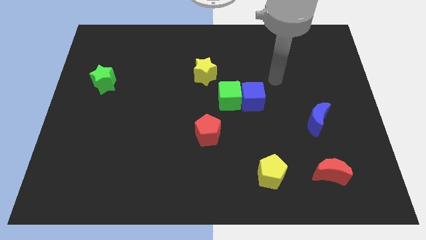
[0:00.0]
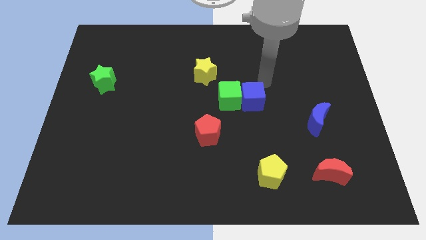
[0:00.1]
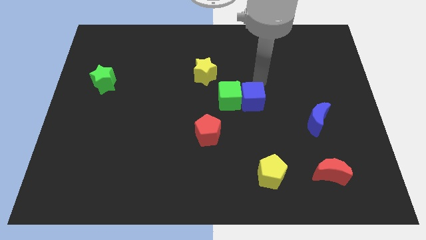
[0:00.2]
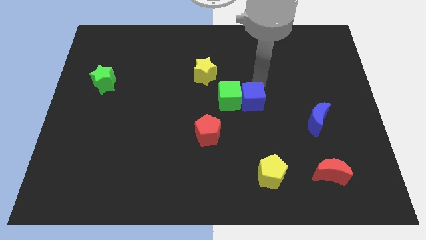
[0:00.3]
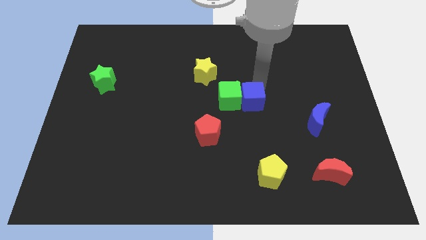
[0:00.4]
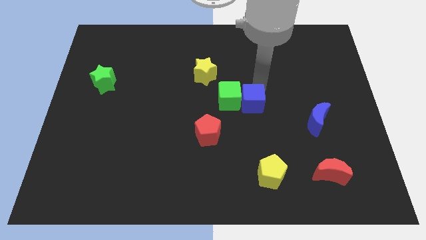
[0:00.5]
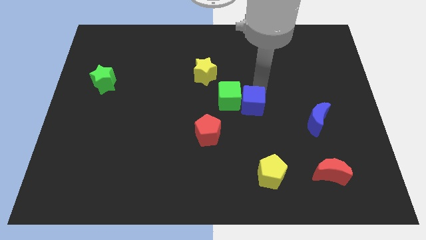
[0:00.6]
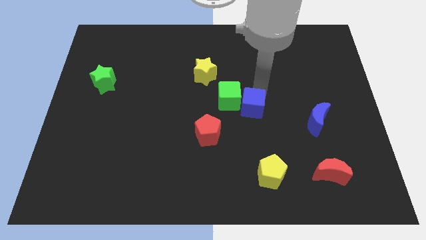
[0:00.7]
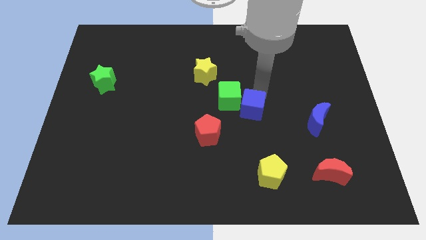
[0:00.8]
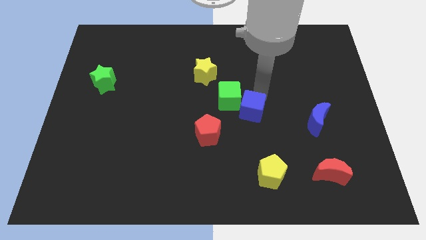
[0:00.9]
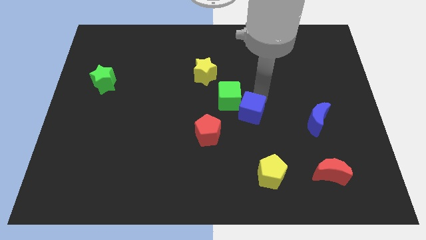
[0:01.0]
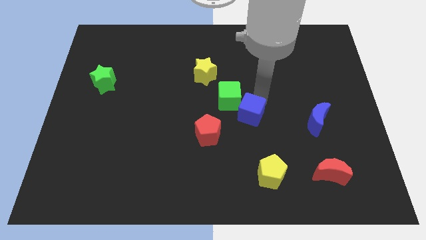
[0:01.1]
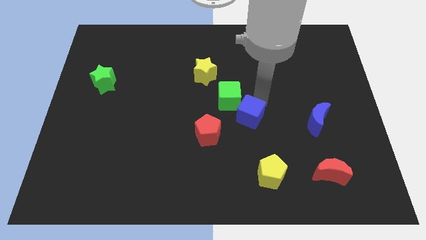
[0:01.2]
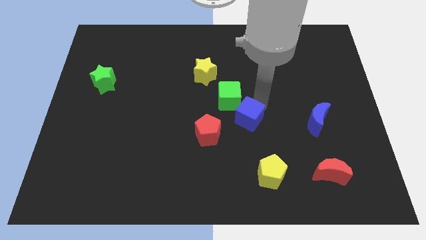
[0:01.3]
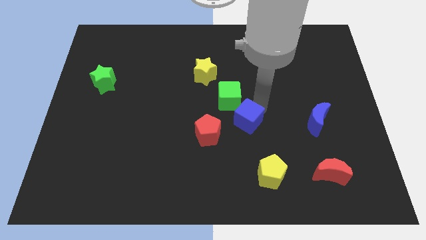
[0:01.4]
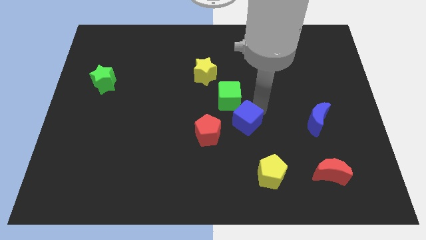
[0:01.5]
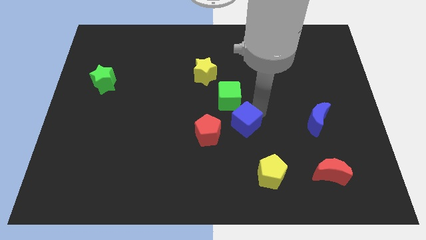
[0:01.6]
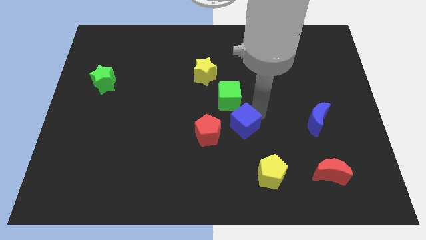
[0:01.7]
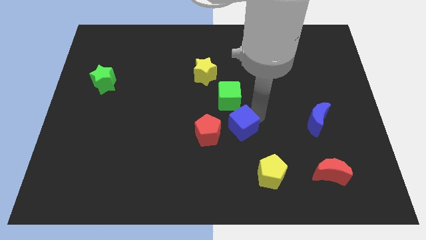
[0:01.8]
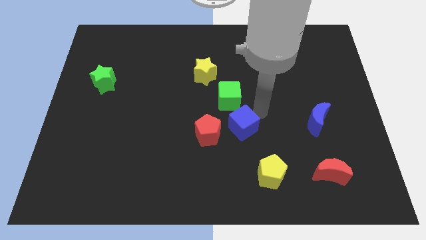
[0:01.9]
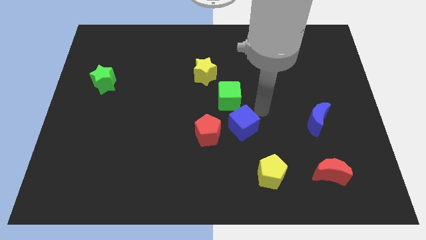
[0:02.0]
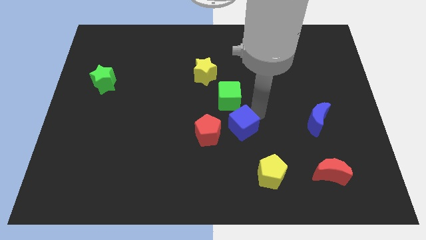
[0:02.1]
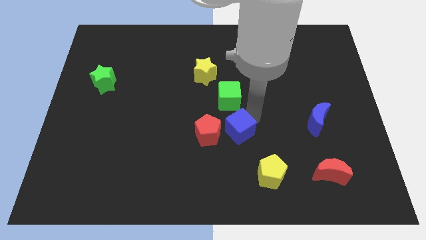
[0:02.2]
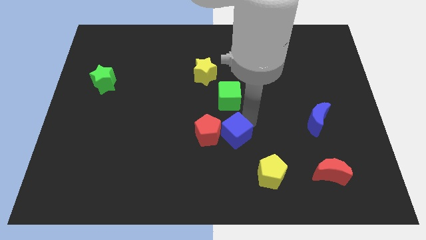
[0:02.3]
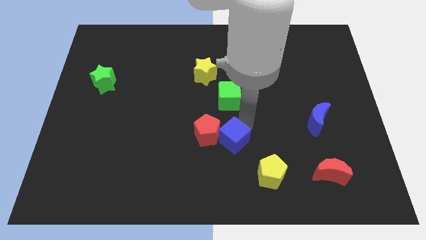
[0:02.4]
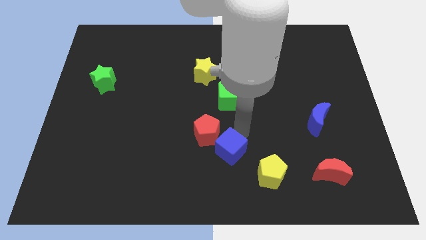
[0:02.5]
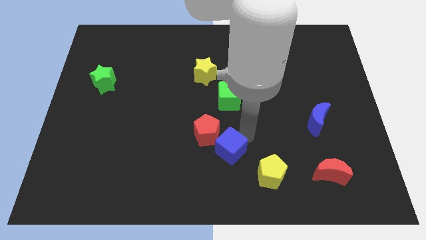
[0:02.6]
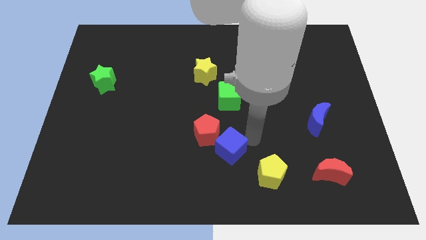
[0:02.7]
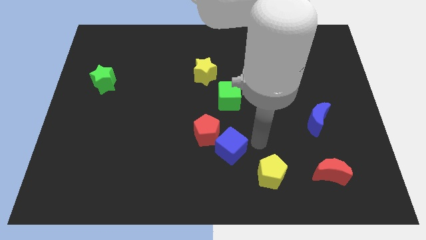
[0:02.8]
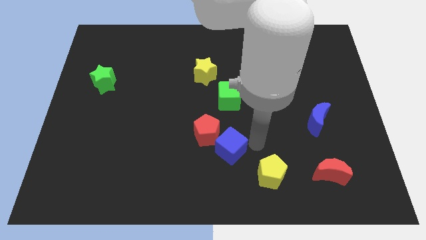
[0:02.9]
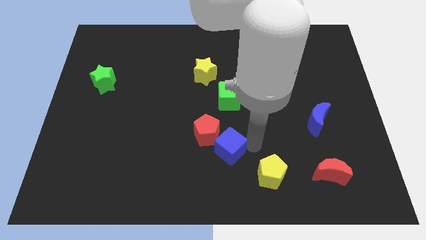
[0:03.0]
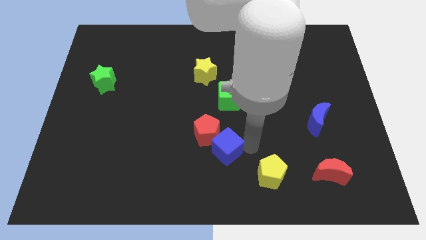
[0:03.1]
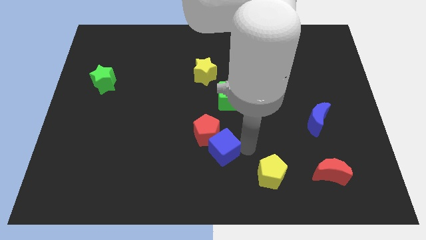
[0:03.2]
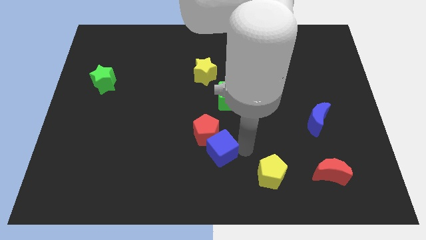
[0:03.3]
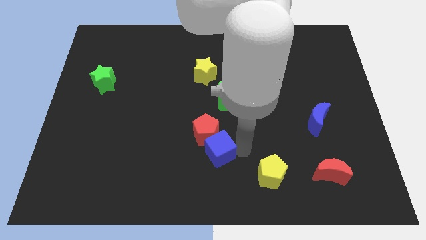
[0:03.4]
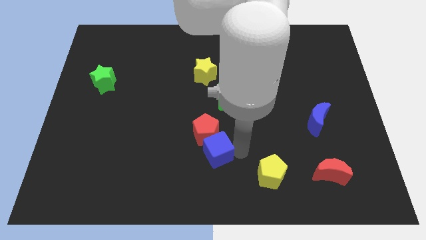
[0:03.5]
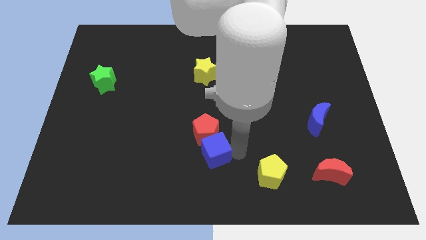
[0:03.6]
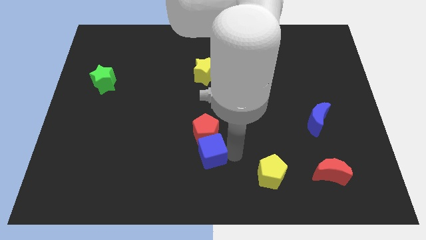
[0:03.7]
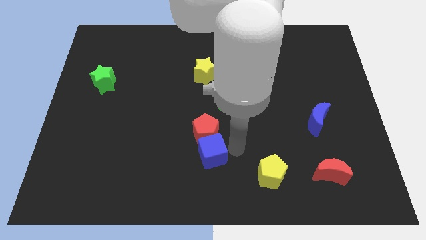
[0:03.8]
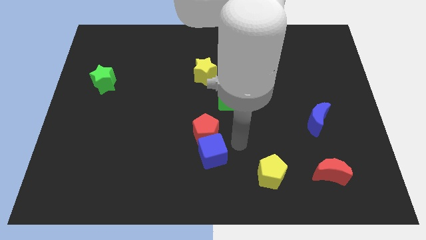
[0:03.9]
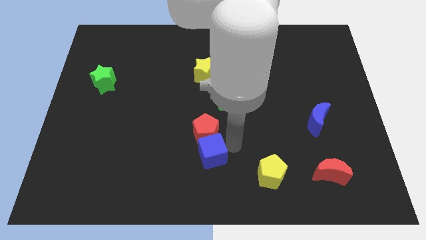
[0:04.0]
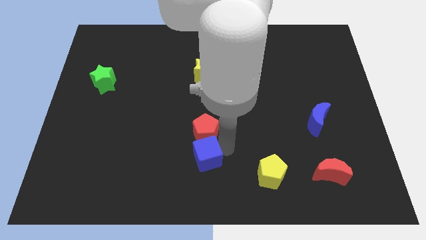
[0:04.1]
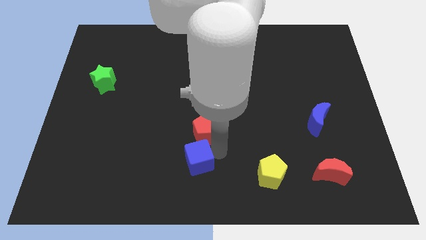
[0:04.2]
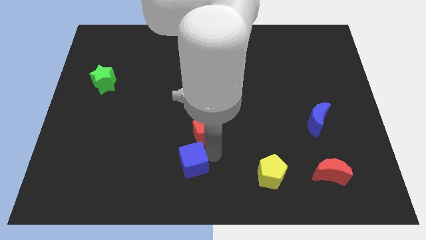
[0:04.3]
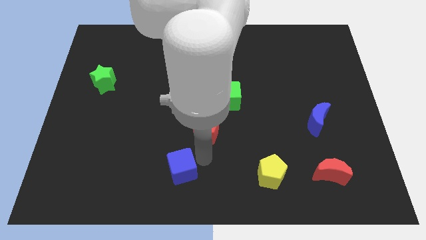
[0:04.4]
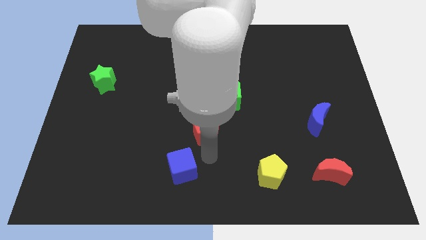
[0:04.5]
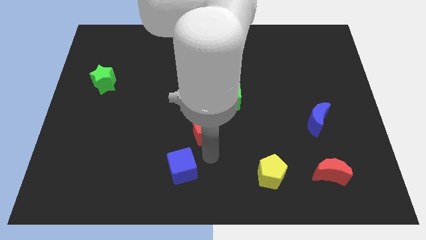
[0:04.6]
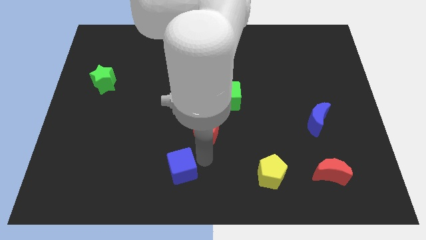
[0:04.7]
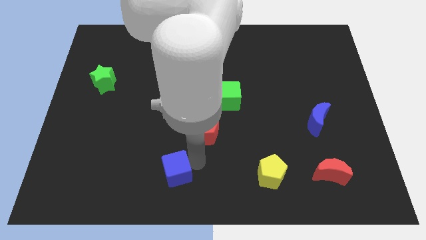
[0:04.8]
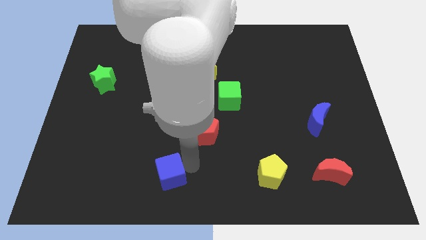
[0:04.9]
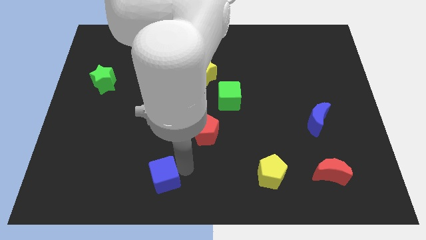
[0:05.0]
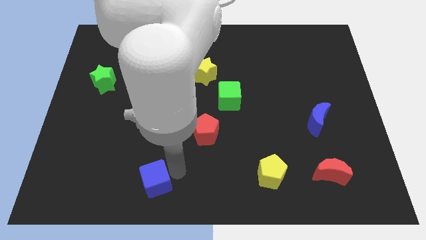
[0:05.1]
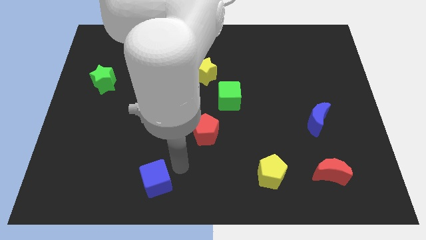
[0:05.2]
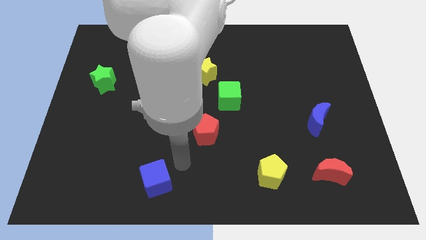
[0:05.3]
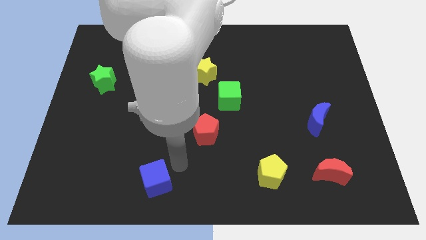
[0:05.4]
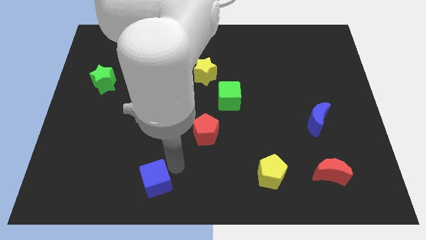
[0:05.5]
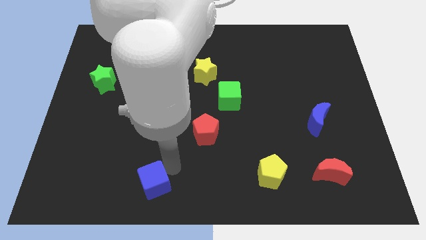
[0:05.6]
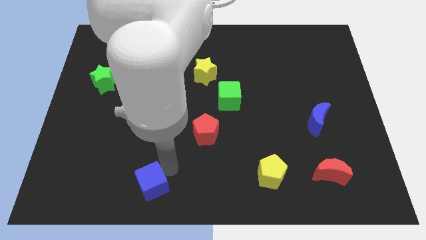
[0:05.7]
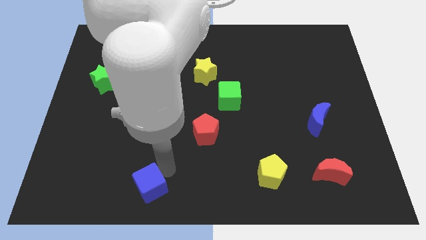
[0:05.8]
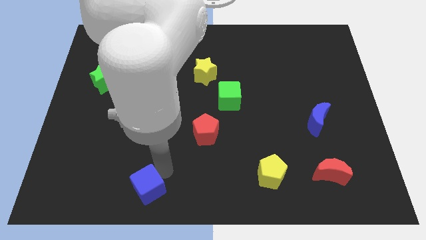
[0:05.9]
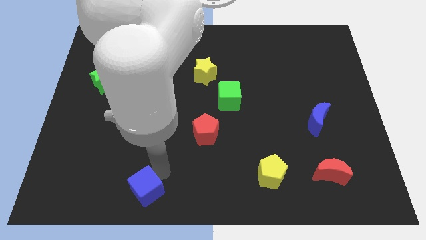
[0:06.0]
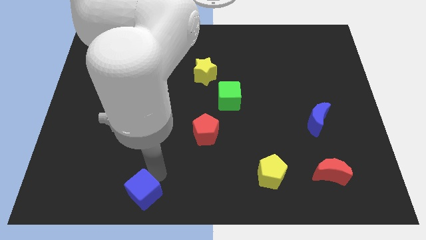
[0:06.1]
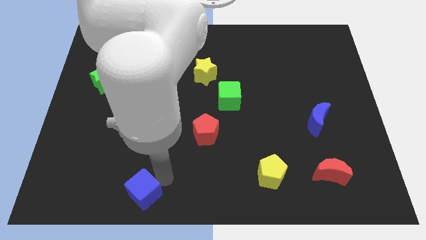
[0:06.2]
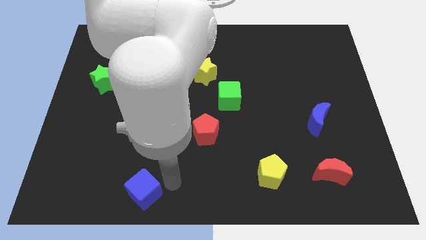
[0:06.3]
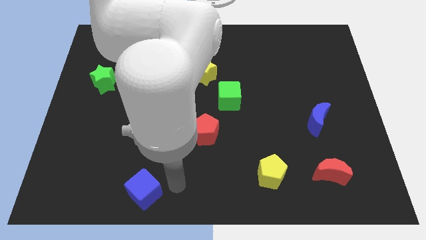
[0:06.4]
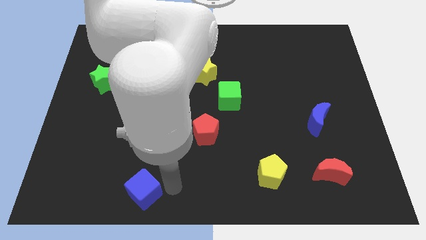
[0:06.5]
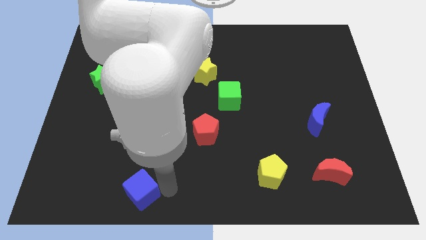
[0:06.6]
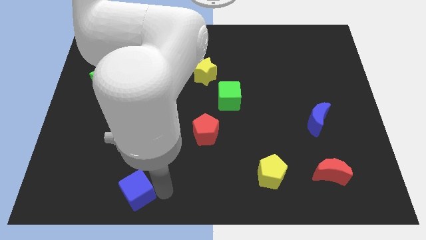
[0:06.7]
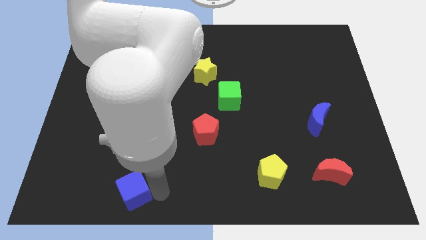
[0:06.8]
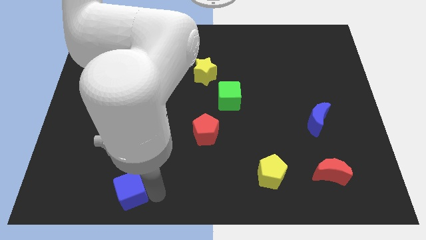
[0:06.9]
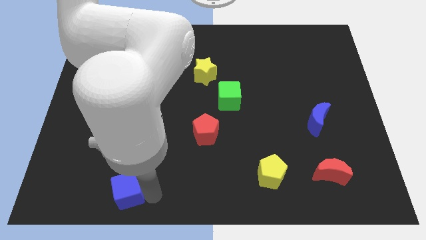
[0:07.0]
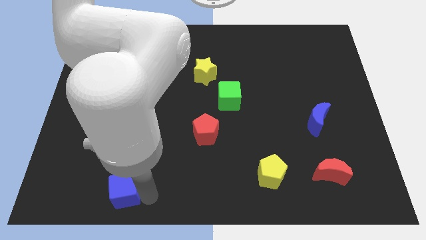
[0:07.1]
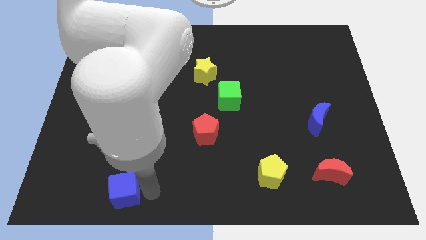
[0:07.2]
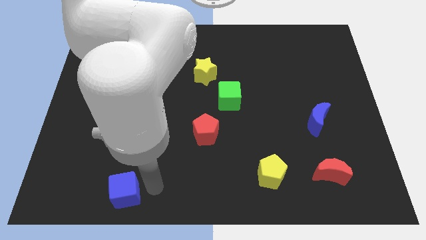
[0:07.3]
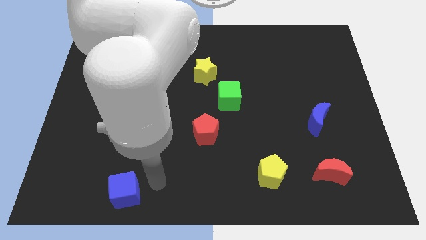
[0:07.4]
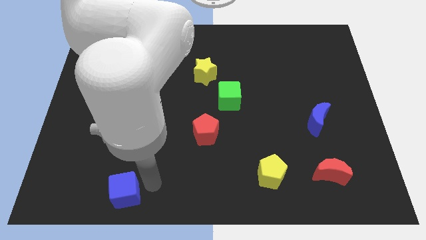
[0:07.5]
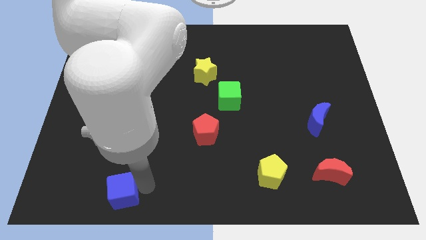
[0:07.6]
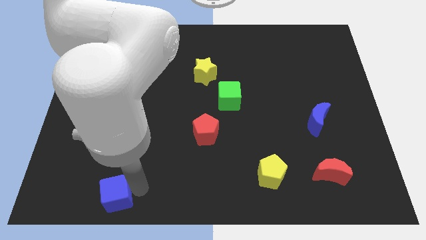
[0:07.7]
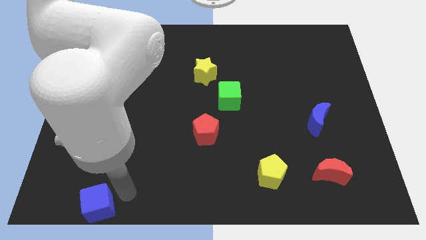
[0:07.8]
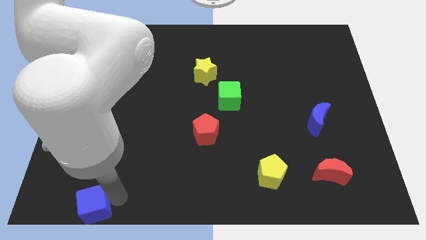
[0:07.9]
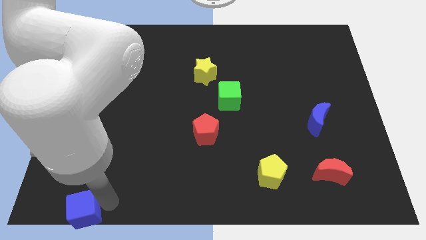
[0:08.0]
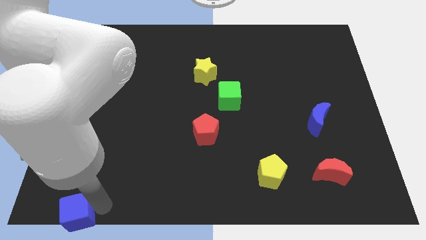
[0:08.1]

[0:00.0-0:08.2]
push the blue cube to the bottom left of the board
